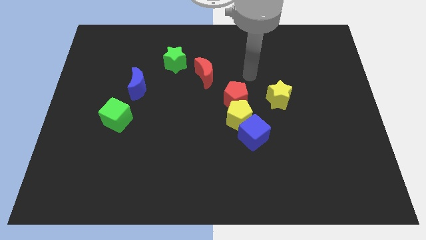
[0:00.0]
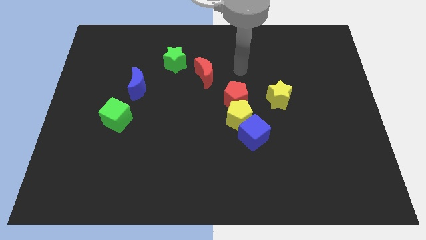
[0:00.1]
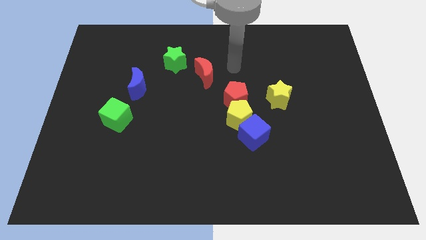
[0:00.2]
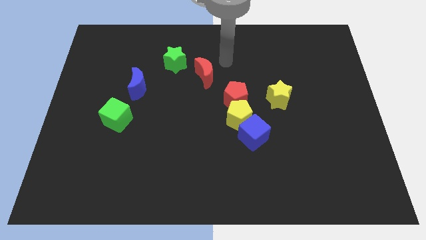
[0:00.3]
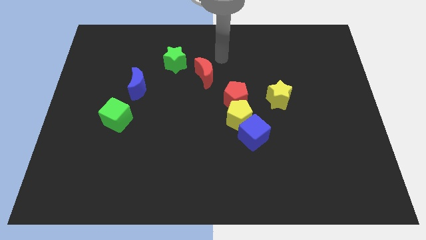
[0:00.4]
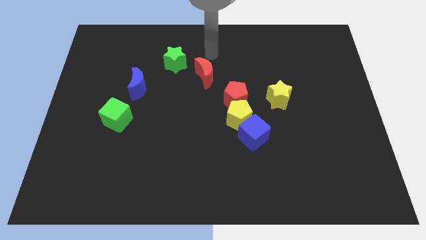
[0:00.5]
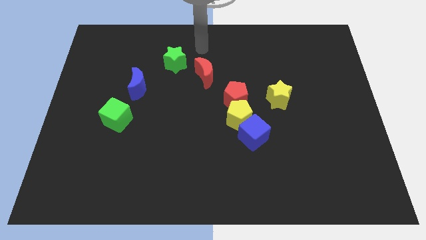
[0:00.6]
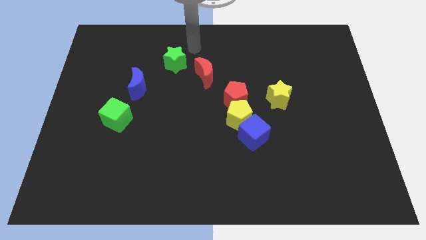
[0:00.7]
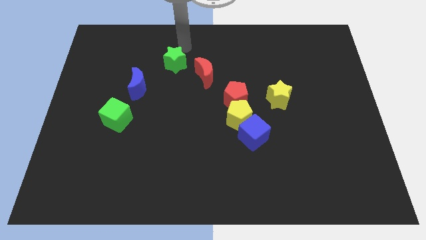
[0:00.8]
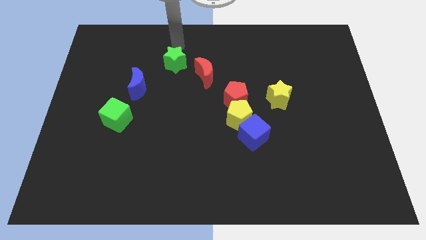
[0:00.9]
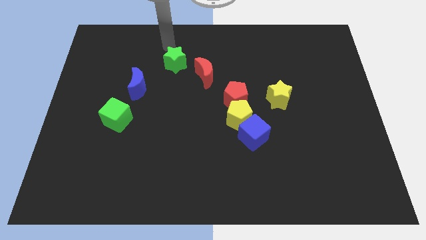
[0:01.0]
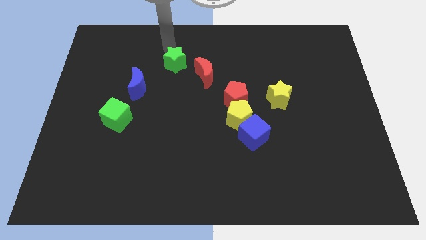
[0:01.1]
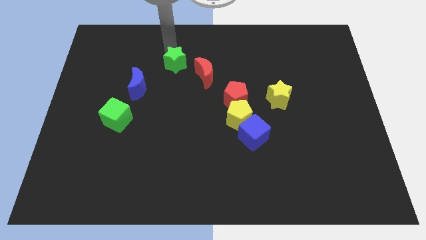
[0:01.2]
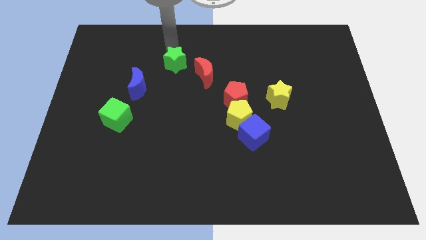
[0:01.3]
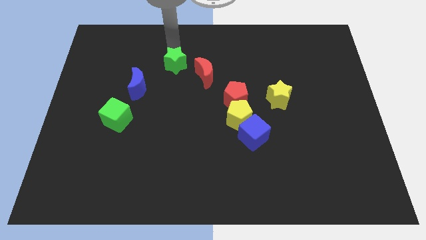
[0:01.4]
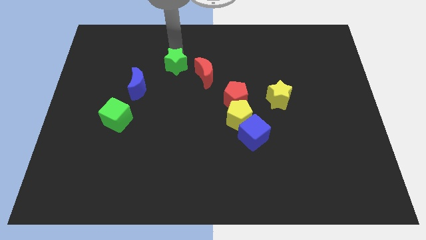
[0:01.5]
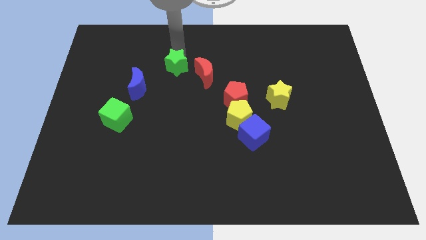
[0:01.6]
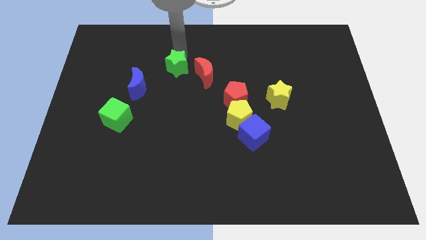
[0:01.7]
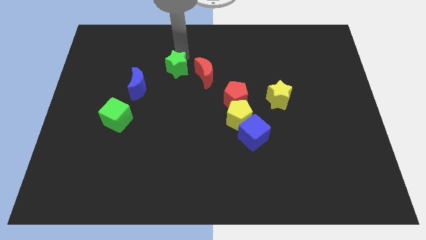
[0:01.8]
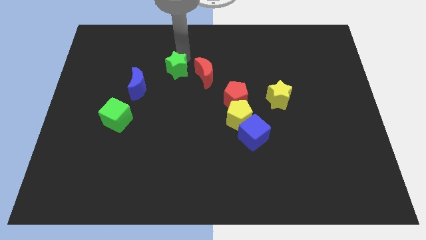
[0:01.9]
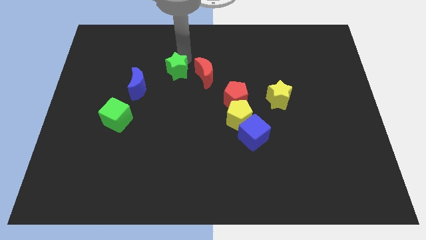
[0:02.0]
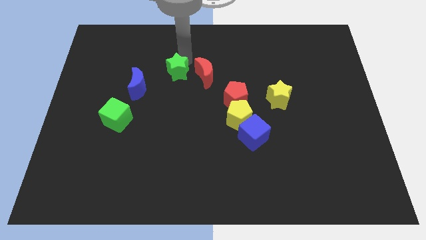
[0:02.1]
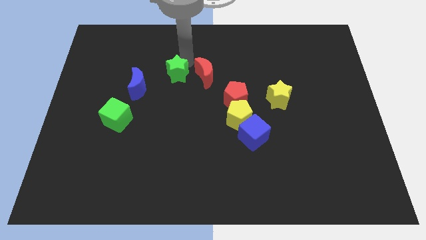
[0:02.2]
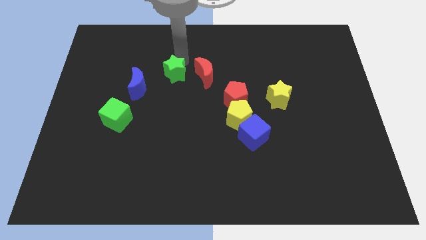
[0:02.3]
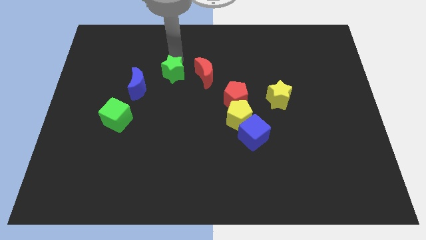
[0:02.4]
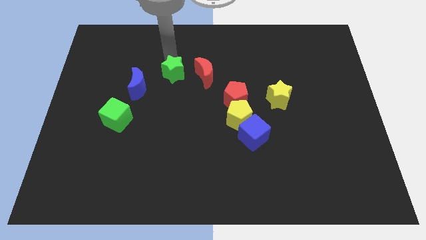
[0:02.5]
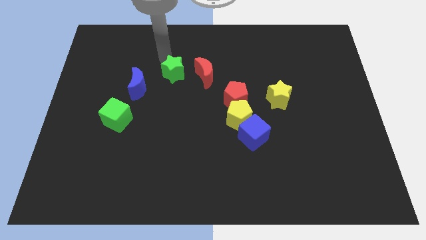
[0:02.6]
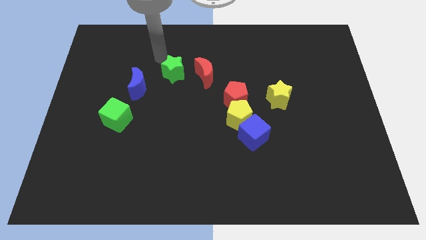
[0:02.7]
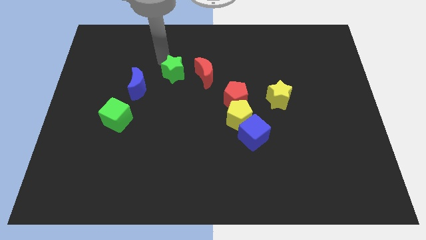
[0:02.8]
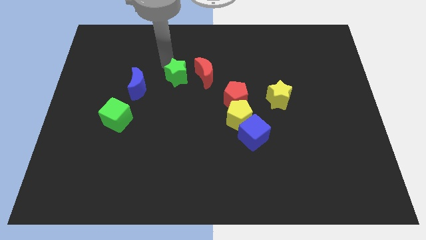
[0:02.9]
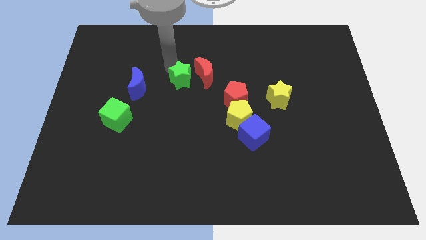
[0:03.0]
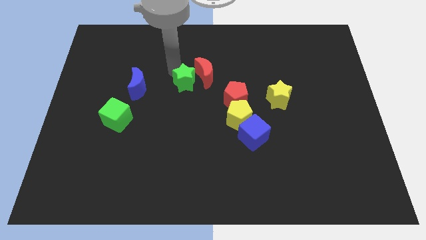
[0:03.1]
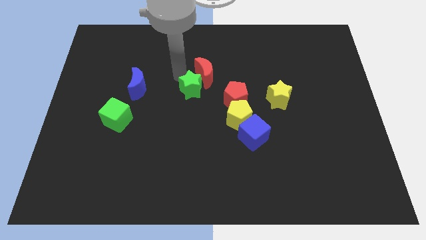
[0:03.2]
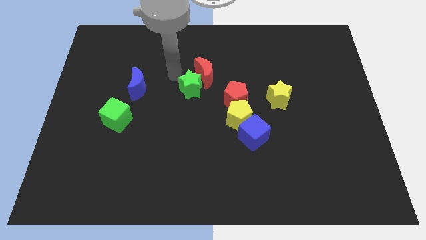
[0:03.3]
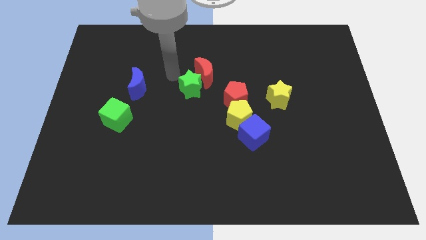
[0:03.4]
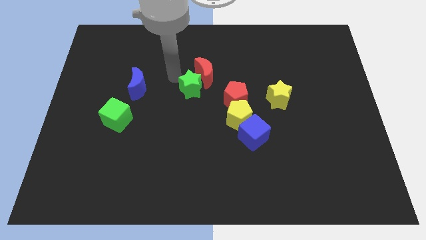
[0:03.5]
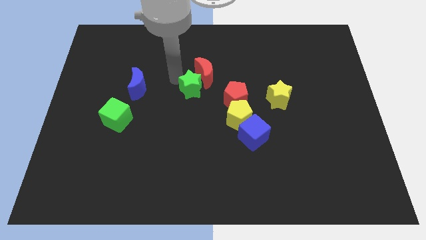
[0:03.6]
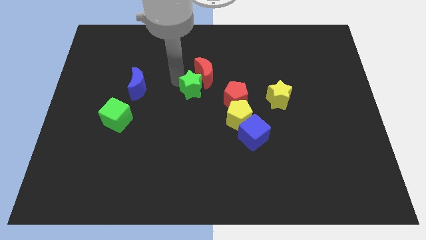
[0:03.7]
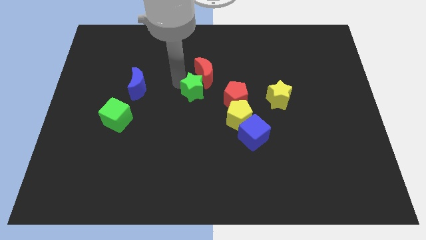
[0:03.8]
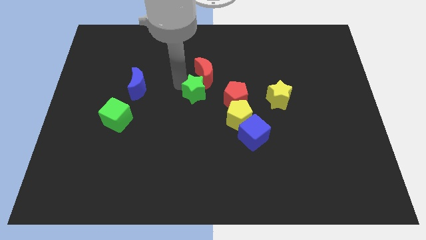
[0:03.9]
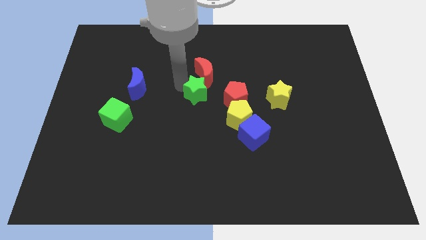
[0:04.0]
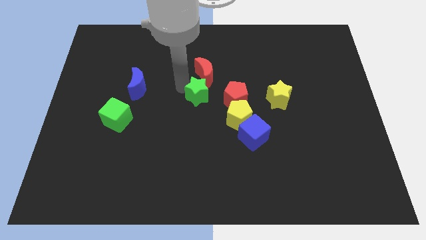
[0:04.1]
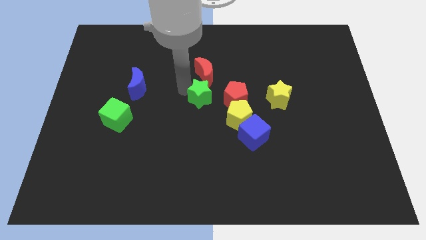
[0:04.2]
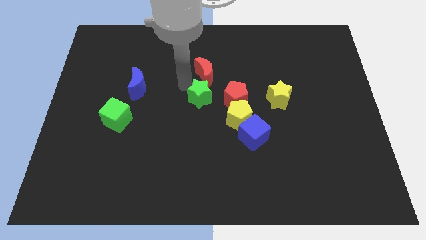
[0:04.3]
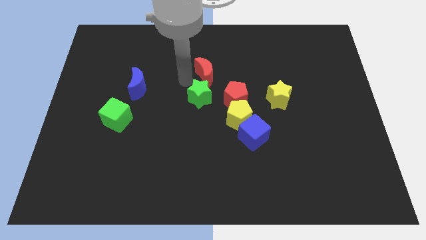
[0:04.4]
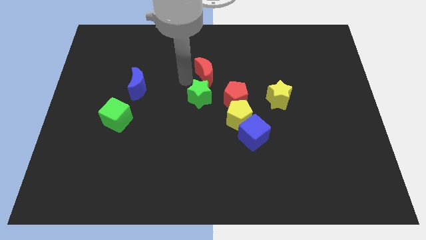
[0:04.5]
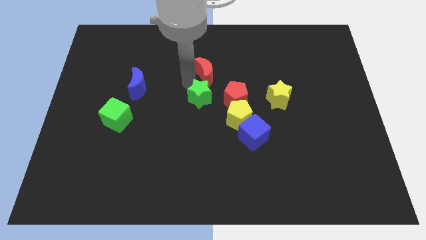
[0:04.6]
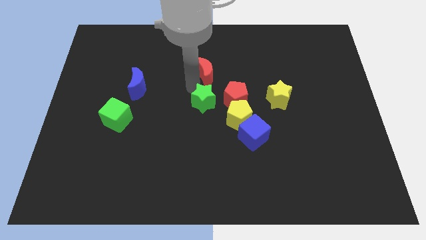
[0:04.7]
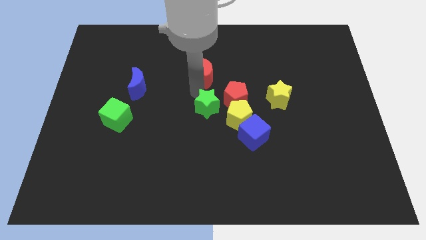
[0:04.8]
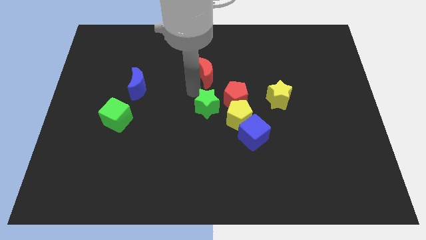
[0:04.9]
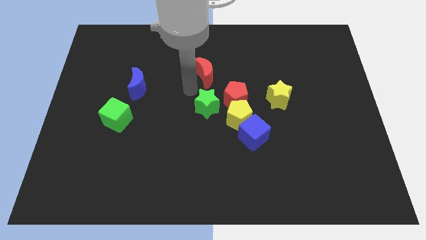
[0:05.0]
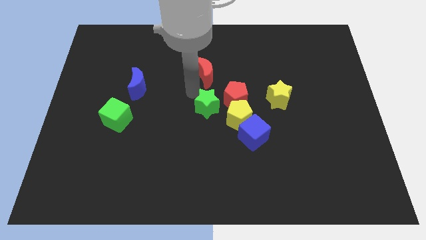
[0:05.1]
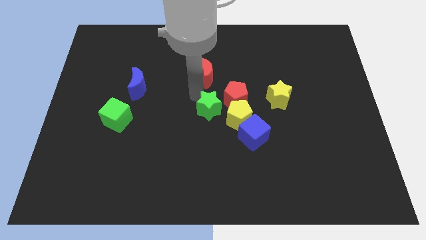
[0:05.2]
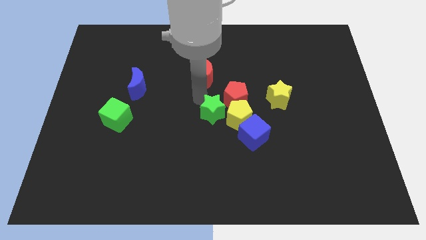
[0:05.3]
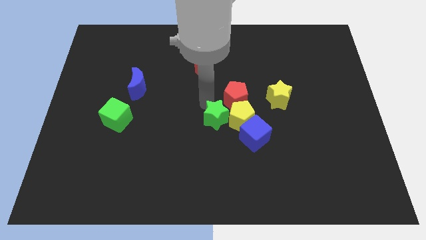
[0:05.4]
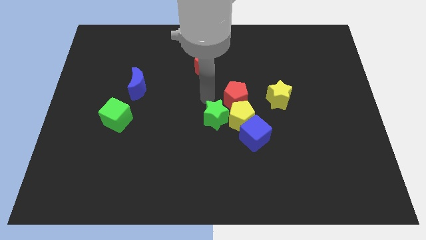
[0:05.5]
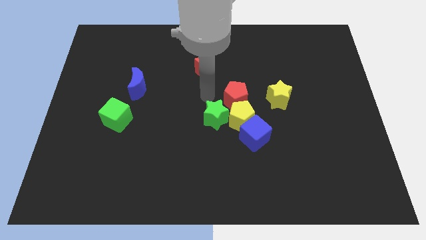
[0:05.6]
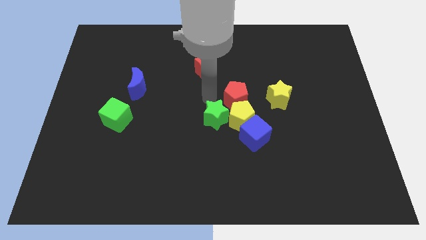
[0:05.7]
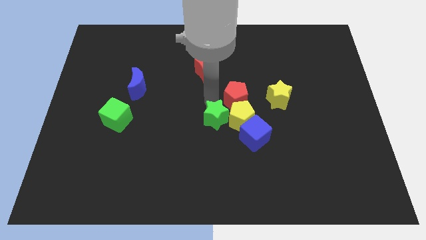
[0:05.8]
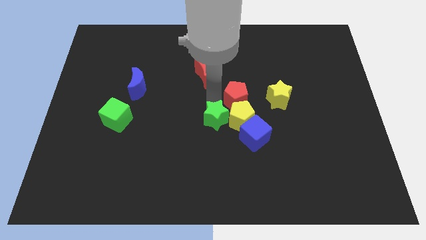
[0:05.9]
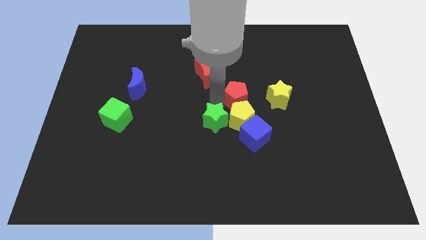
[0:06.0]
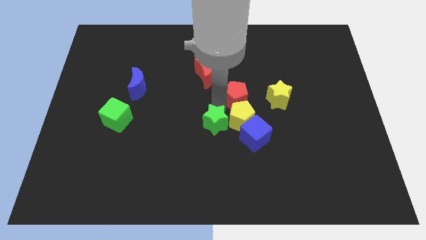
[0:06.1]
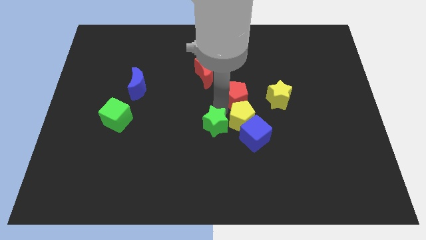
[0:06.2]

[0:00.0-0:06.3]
move the green star downwards and right

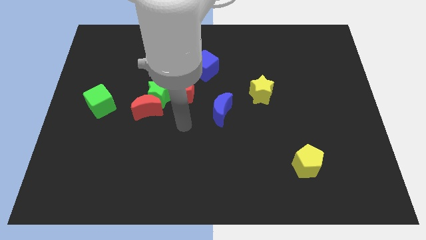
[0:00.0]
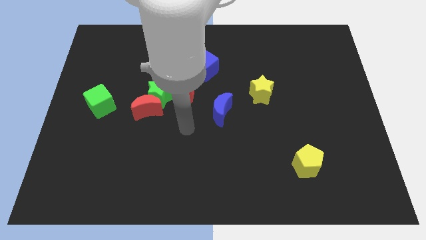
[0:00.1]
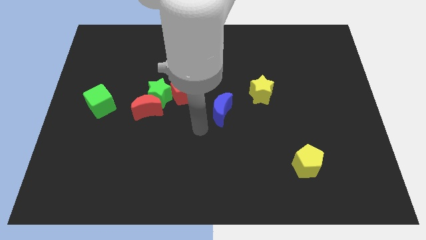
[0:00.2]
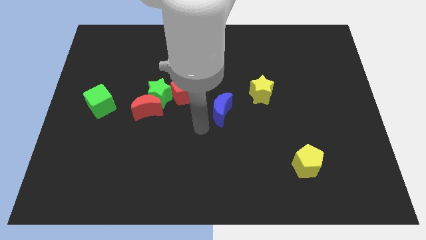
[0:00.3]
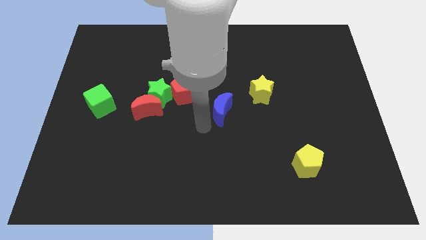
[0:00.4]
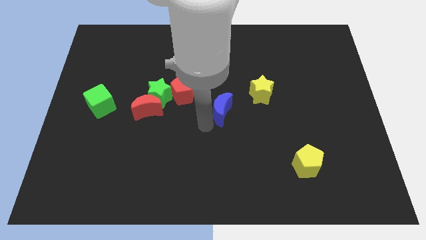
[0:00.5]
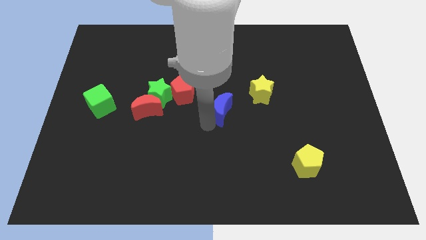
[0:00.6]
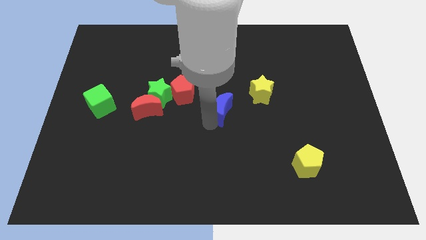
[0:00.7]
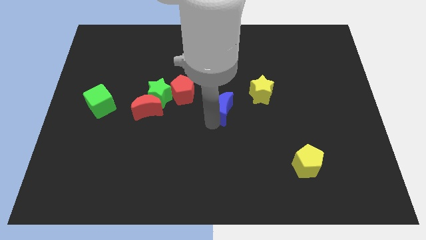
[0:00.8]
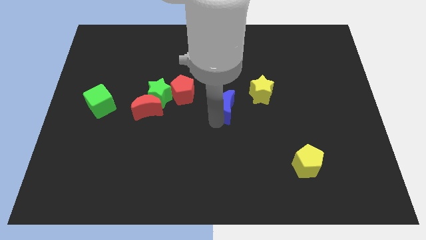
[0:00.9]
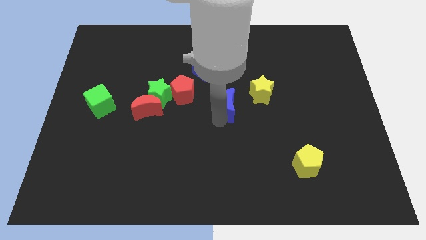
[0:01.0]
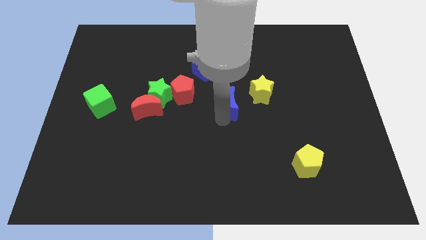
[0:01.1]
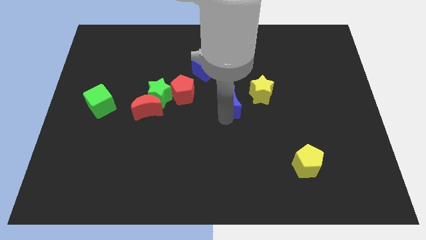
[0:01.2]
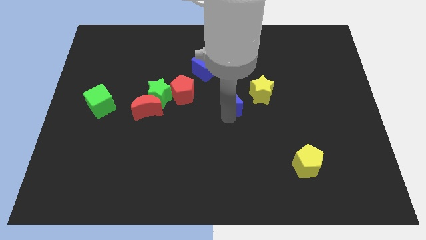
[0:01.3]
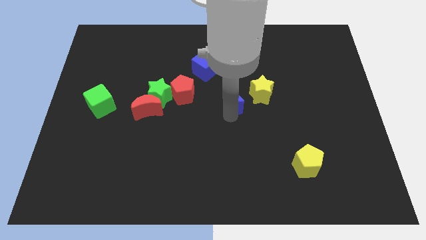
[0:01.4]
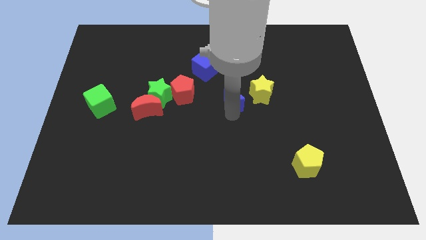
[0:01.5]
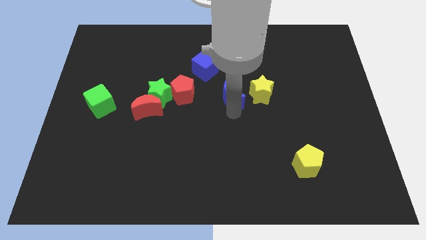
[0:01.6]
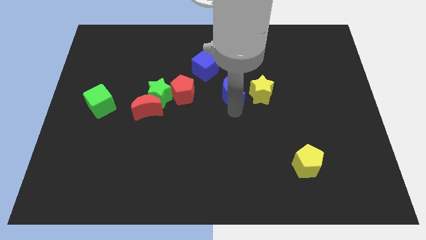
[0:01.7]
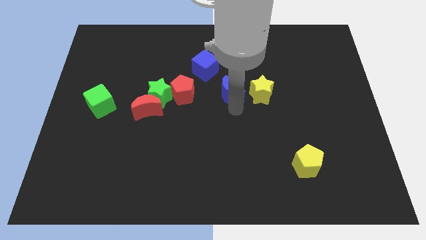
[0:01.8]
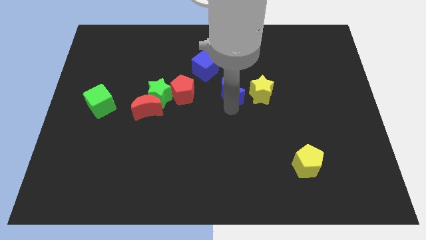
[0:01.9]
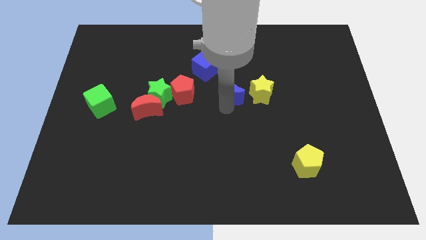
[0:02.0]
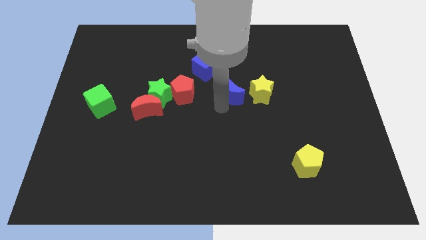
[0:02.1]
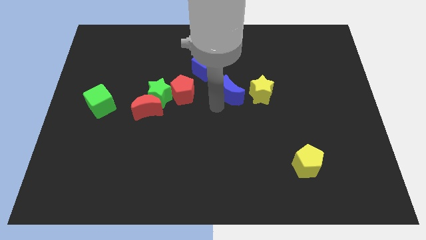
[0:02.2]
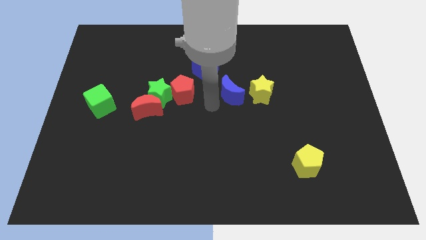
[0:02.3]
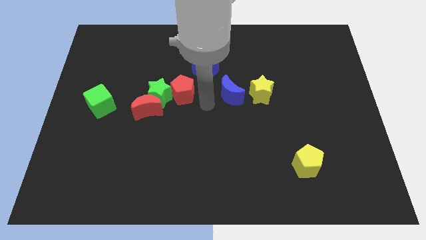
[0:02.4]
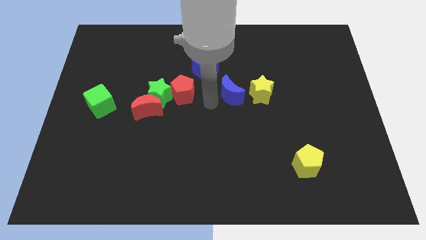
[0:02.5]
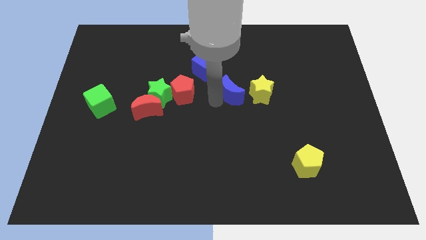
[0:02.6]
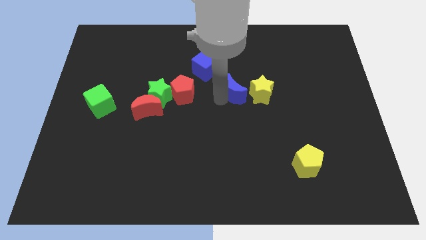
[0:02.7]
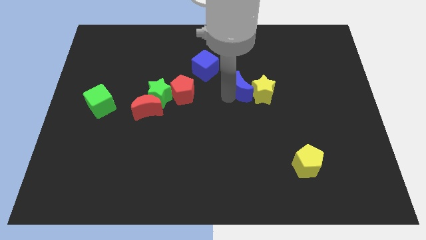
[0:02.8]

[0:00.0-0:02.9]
slightly push the blue moon upwards and to the right
